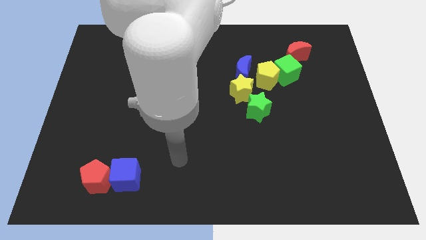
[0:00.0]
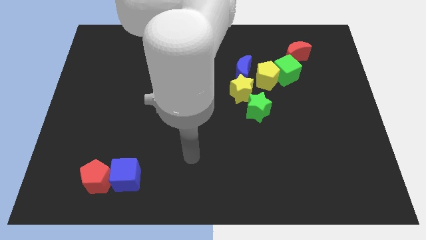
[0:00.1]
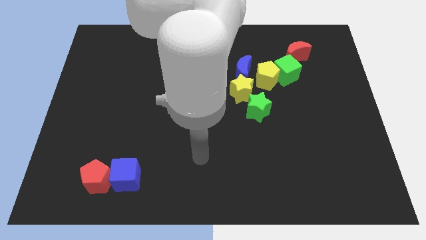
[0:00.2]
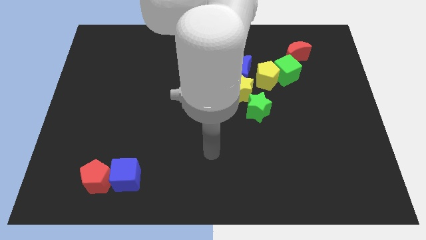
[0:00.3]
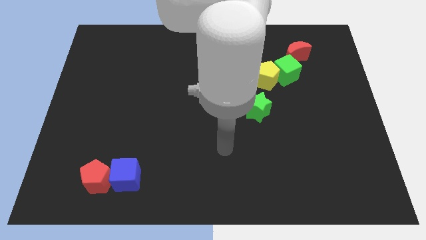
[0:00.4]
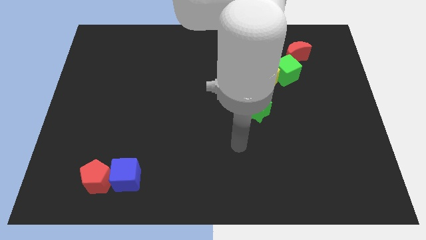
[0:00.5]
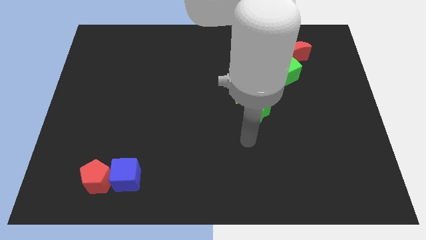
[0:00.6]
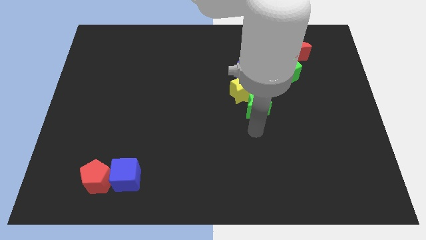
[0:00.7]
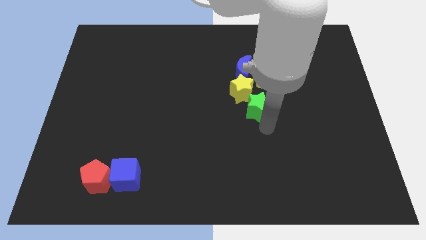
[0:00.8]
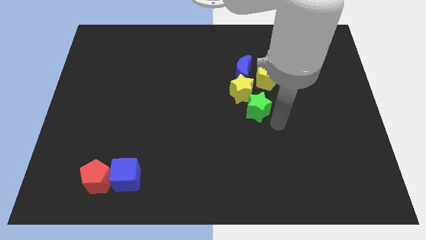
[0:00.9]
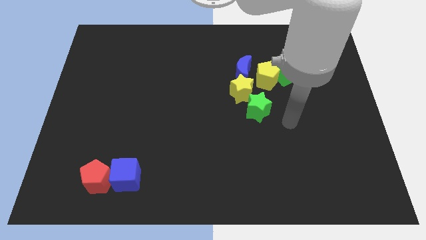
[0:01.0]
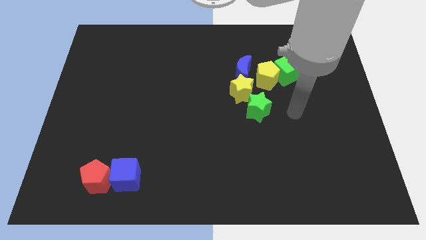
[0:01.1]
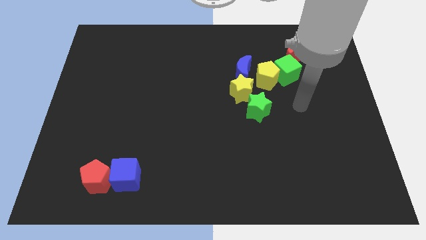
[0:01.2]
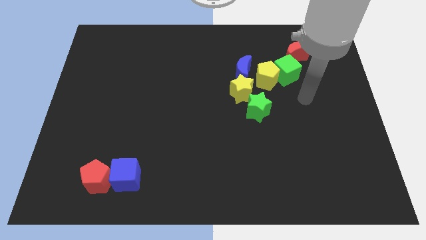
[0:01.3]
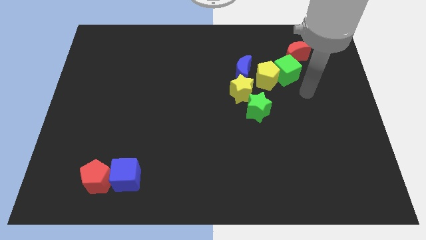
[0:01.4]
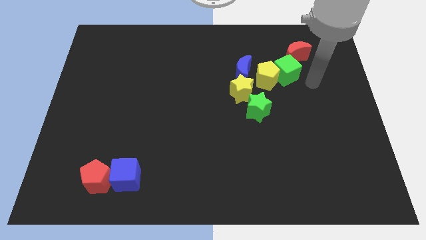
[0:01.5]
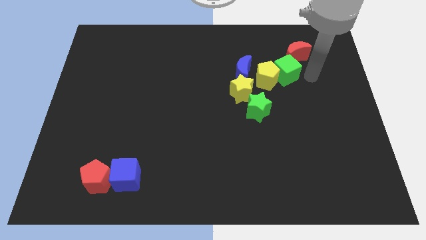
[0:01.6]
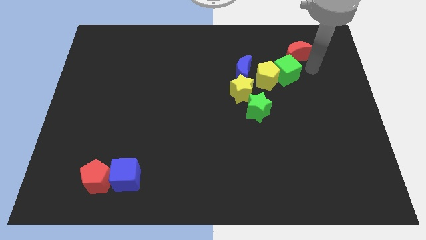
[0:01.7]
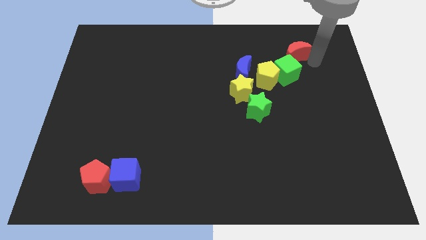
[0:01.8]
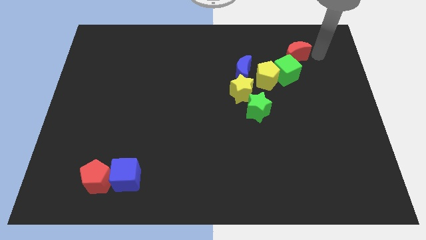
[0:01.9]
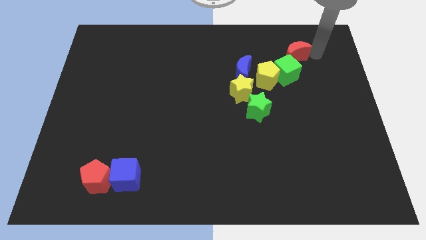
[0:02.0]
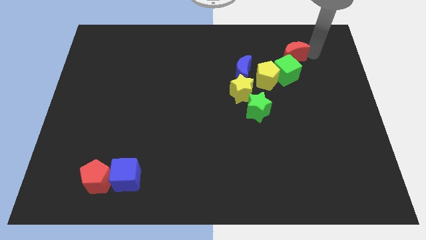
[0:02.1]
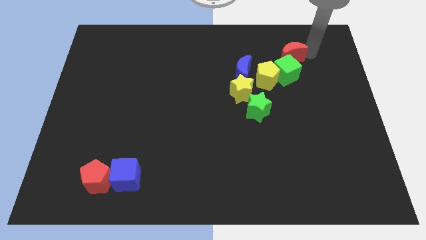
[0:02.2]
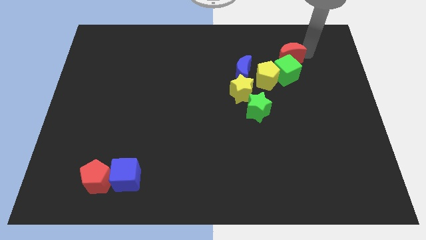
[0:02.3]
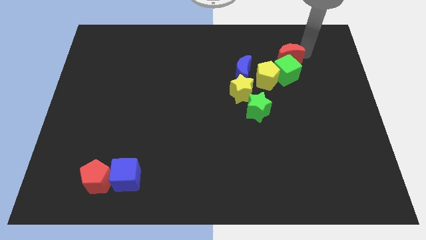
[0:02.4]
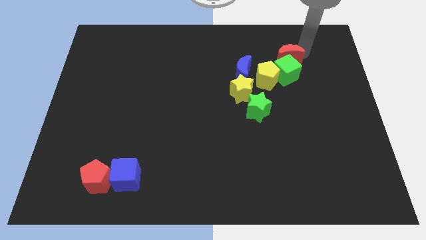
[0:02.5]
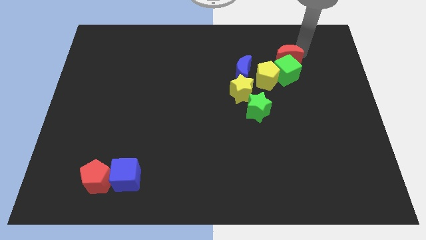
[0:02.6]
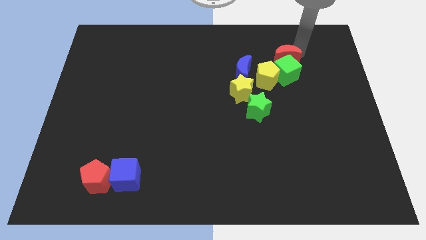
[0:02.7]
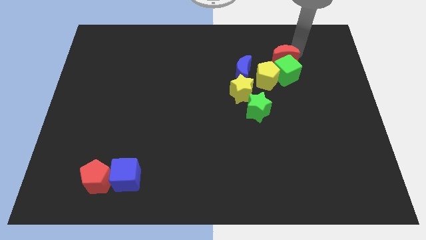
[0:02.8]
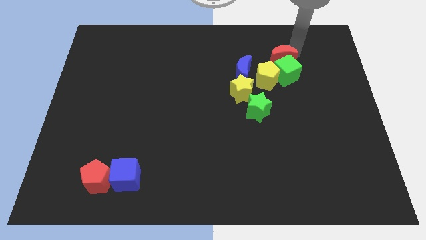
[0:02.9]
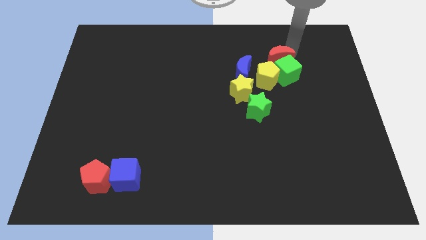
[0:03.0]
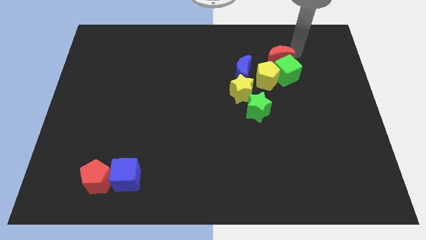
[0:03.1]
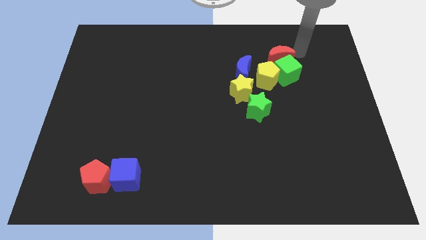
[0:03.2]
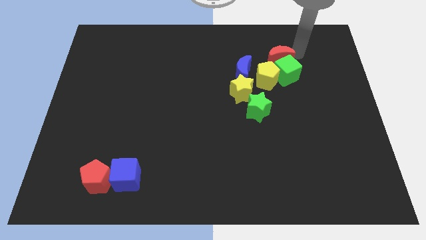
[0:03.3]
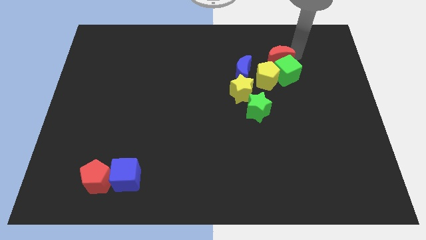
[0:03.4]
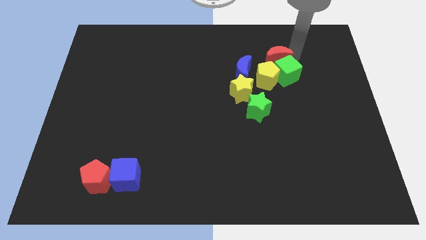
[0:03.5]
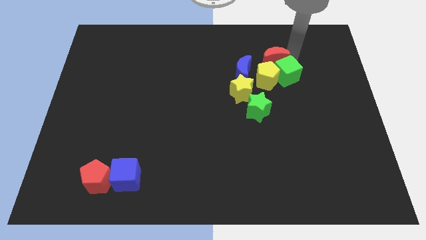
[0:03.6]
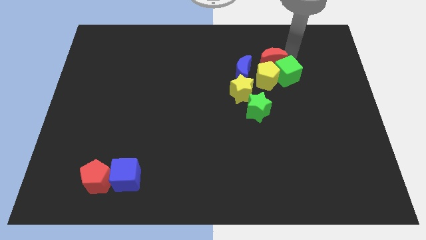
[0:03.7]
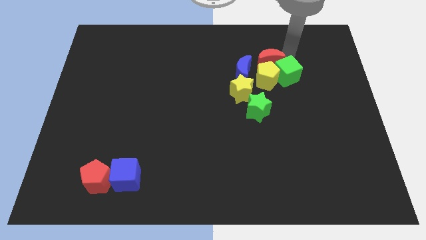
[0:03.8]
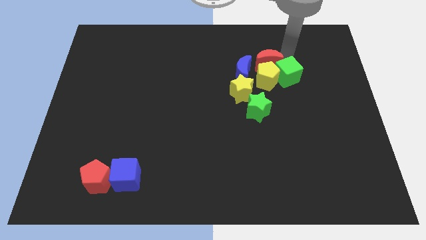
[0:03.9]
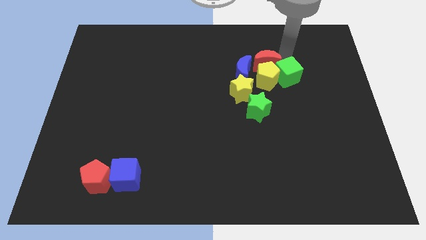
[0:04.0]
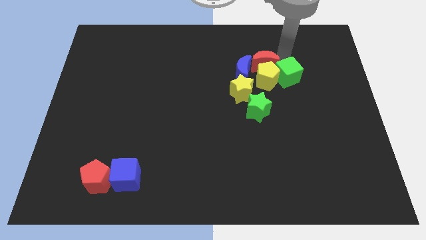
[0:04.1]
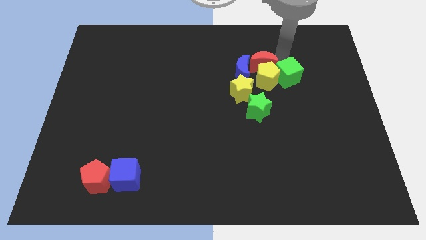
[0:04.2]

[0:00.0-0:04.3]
push the red moon close to the blue moon

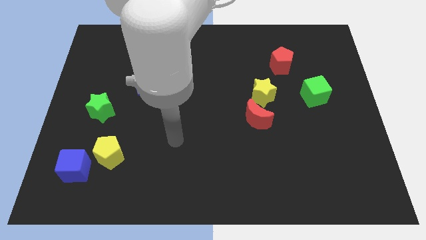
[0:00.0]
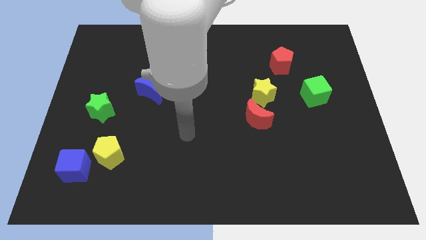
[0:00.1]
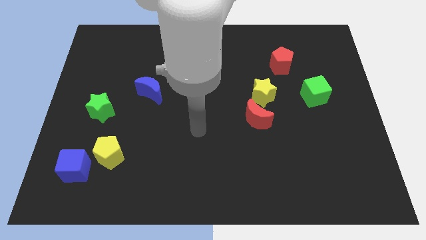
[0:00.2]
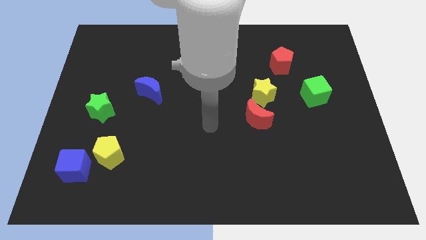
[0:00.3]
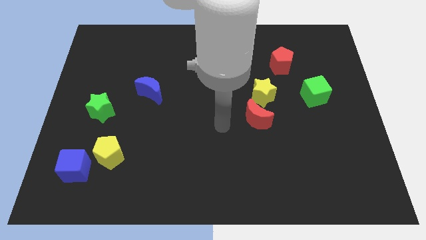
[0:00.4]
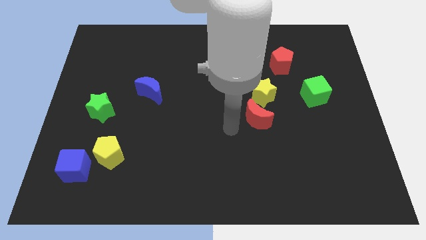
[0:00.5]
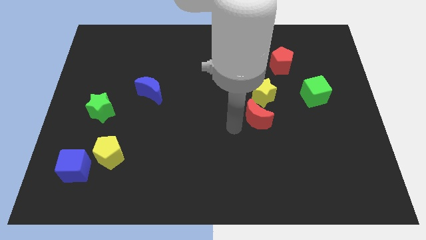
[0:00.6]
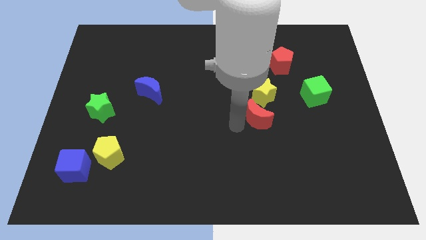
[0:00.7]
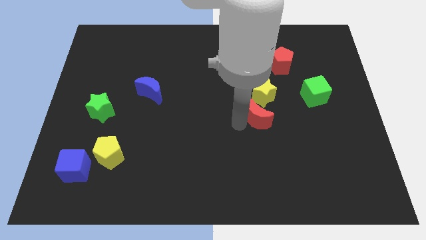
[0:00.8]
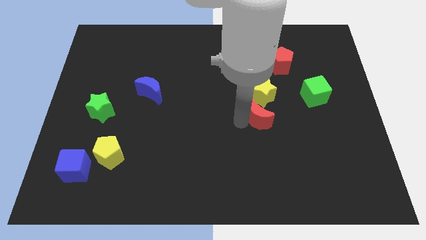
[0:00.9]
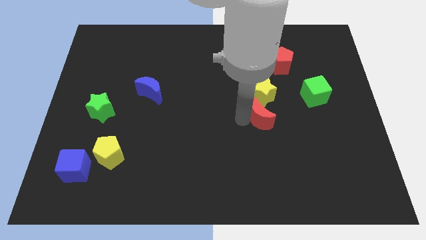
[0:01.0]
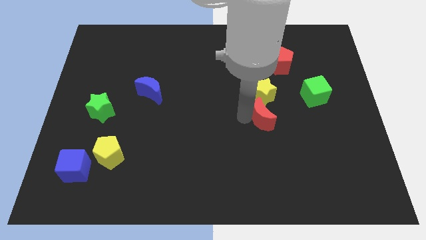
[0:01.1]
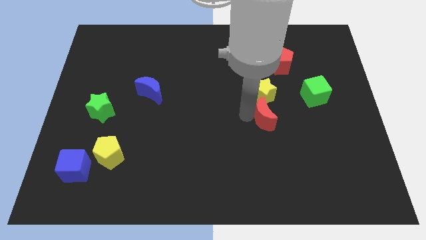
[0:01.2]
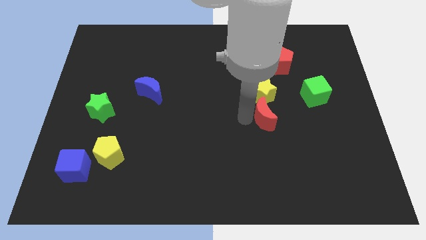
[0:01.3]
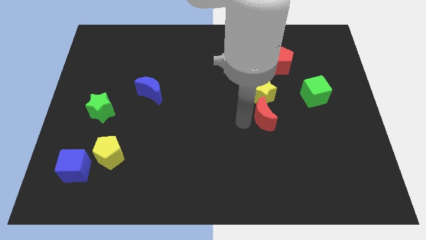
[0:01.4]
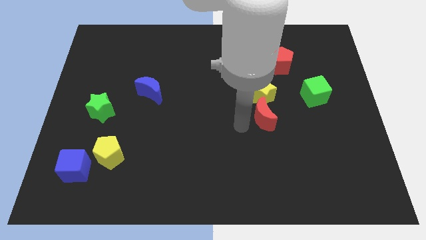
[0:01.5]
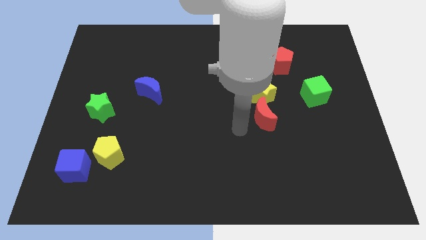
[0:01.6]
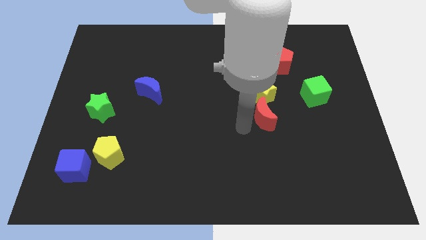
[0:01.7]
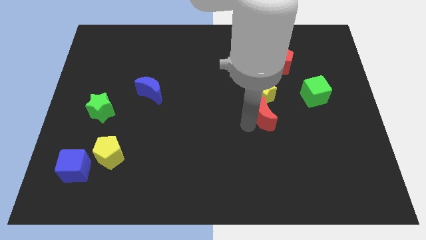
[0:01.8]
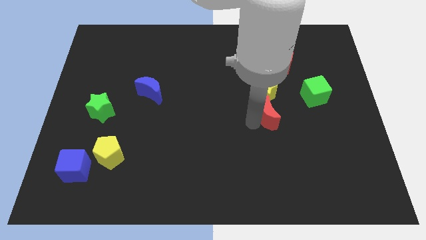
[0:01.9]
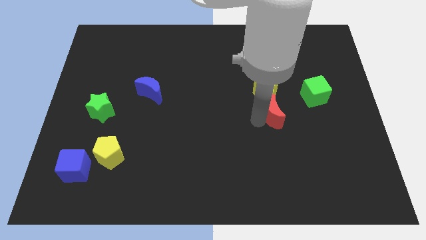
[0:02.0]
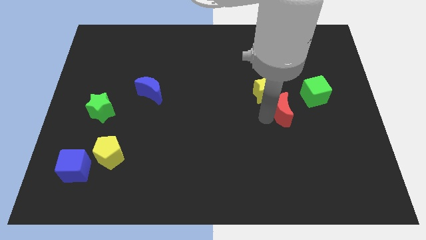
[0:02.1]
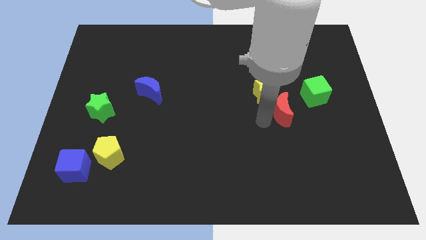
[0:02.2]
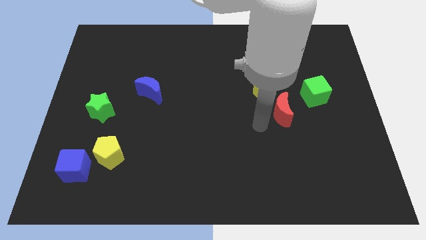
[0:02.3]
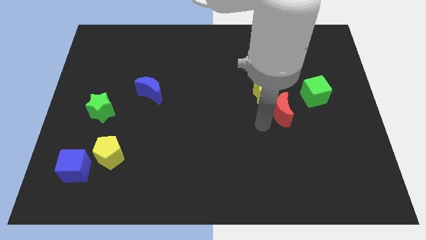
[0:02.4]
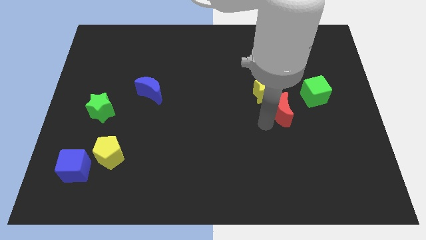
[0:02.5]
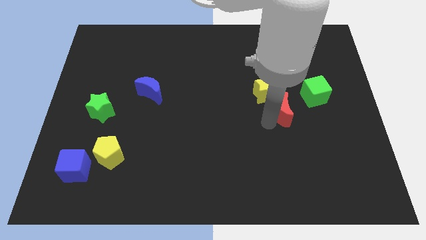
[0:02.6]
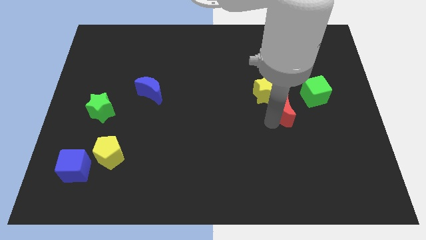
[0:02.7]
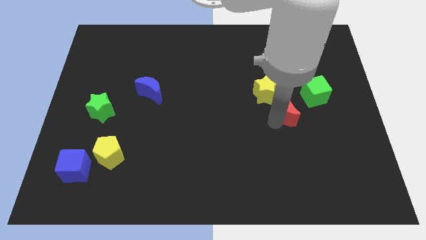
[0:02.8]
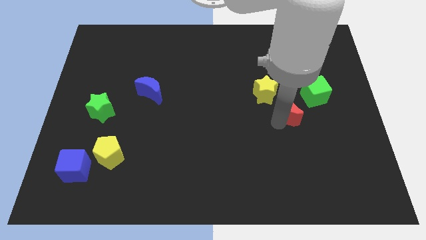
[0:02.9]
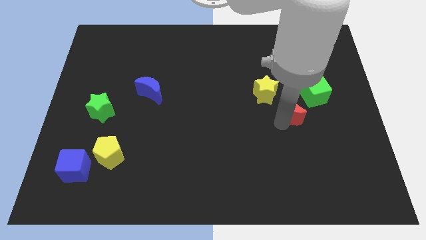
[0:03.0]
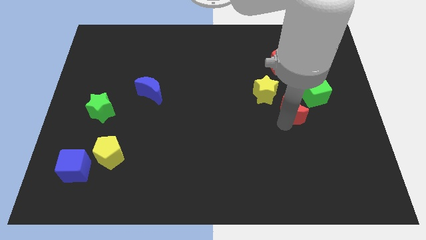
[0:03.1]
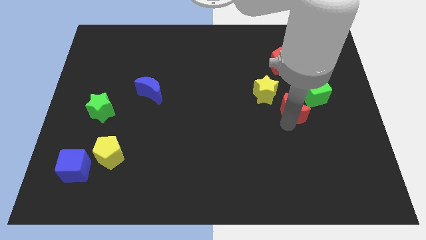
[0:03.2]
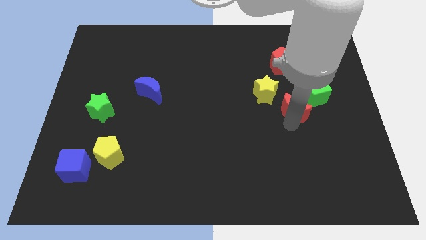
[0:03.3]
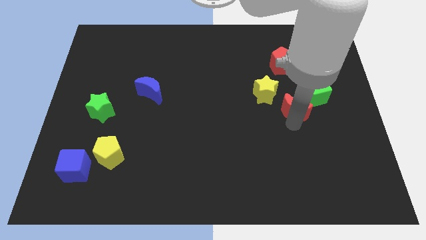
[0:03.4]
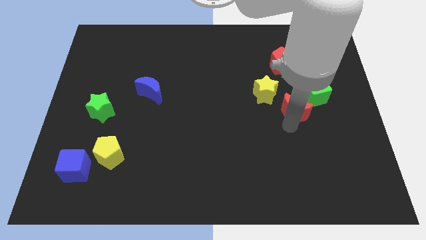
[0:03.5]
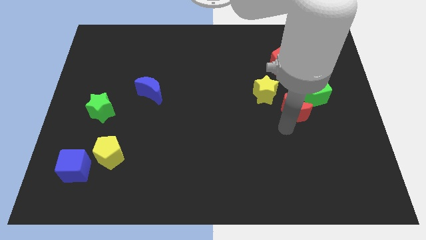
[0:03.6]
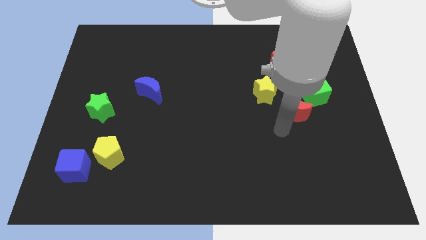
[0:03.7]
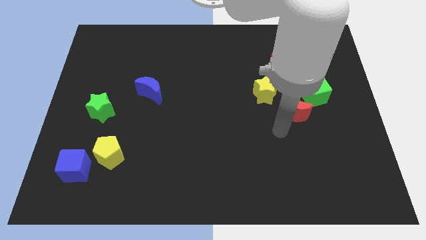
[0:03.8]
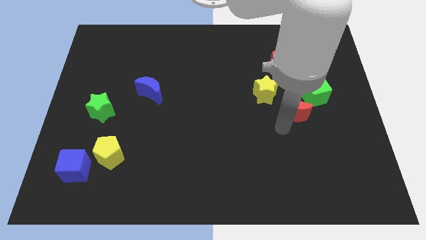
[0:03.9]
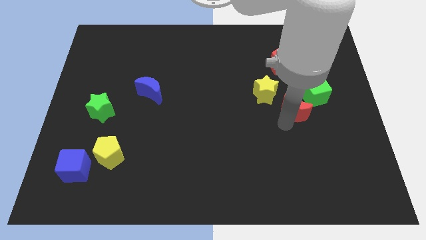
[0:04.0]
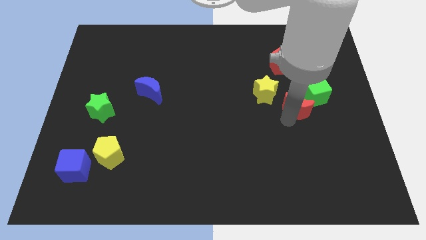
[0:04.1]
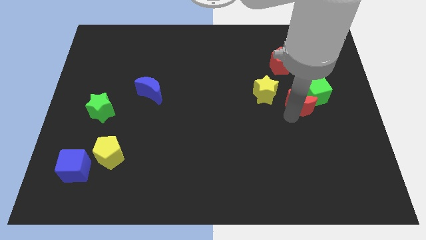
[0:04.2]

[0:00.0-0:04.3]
put the red moon towards the green cube
